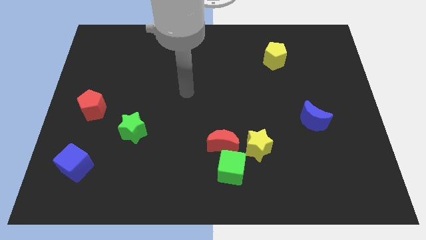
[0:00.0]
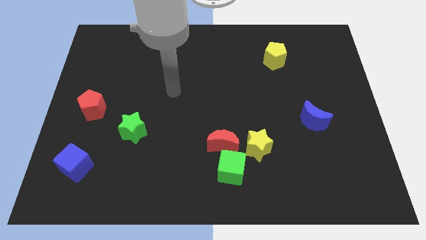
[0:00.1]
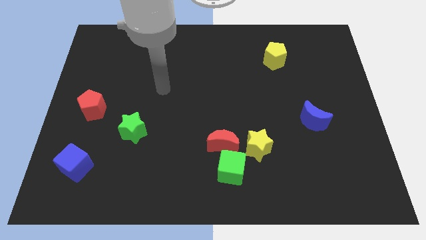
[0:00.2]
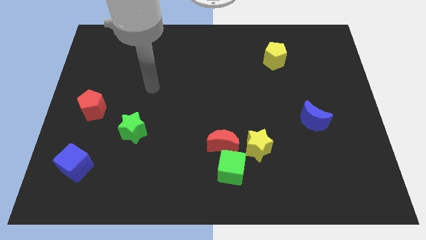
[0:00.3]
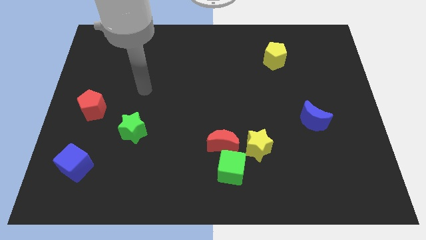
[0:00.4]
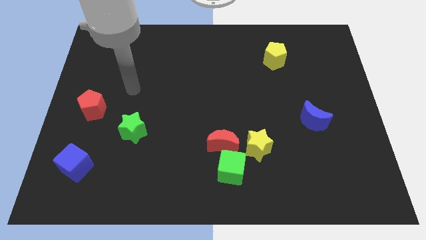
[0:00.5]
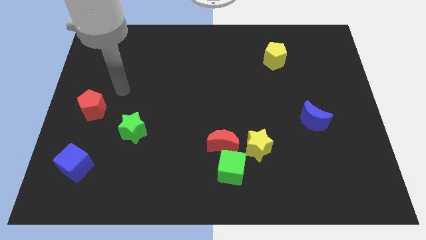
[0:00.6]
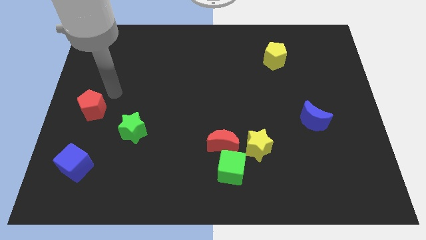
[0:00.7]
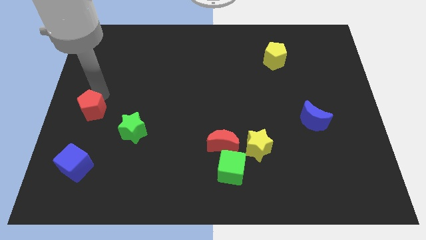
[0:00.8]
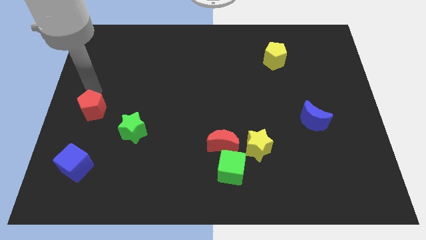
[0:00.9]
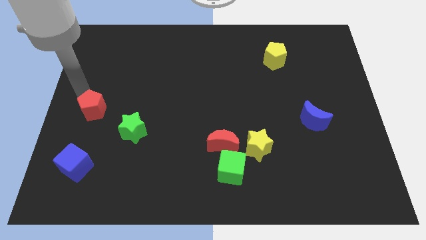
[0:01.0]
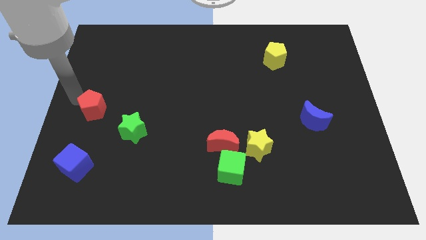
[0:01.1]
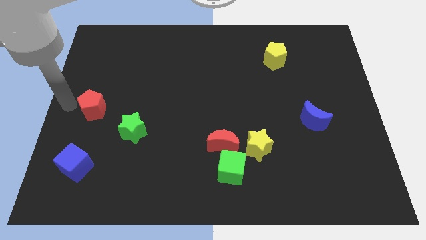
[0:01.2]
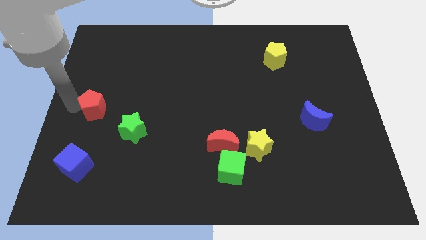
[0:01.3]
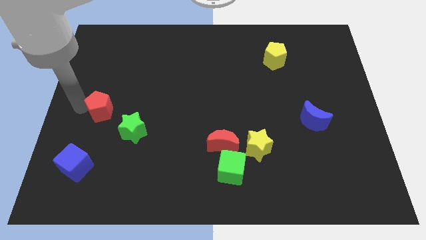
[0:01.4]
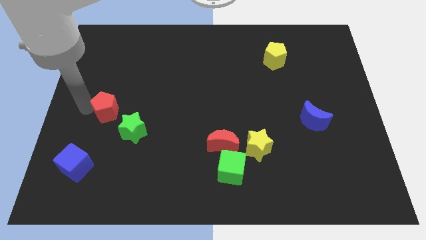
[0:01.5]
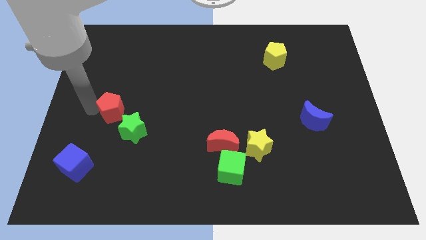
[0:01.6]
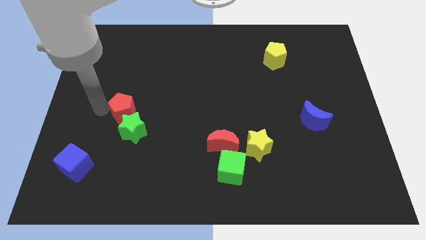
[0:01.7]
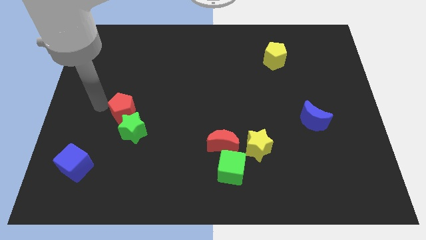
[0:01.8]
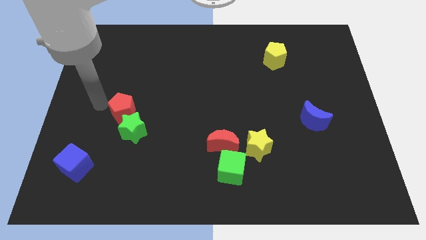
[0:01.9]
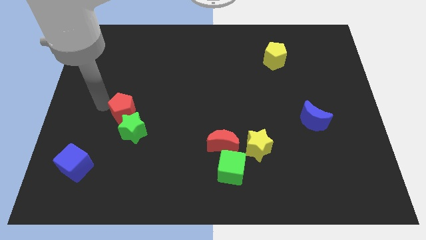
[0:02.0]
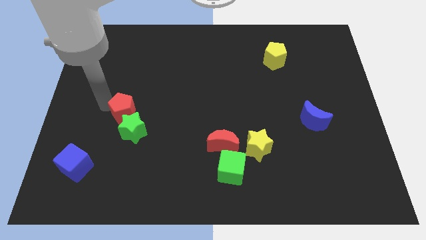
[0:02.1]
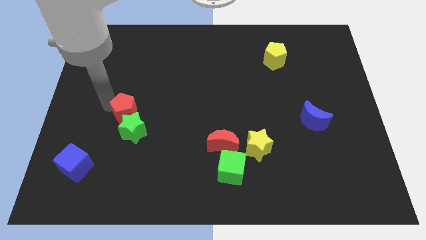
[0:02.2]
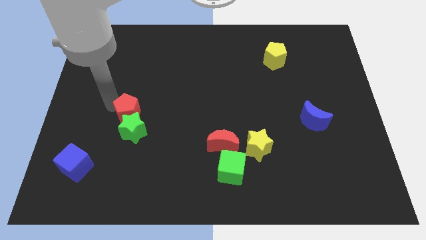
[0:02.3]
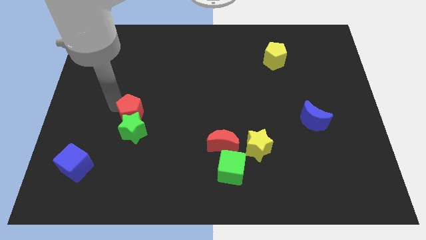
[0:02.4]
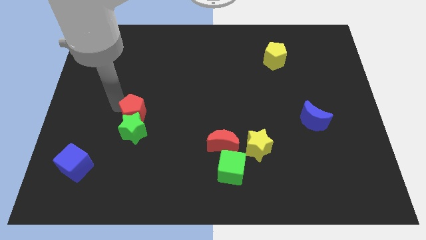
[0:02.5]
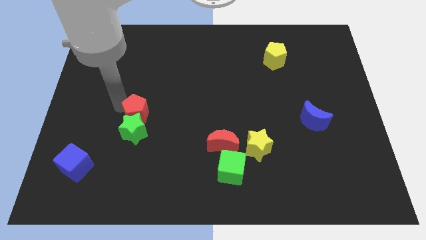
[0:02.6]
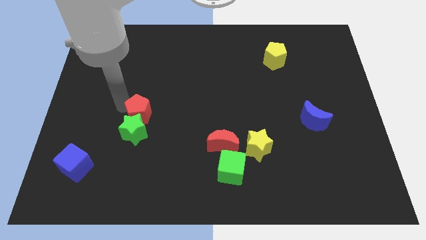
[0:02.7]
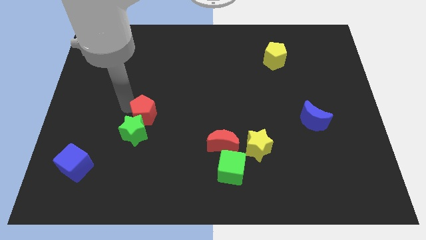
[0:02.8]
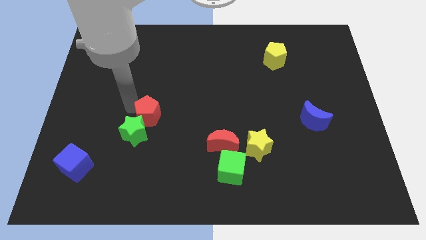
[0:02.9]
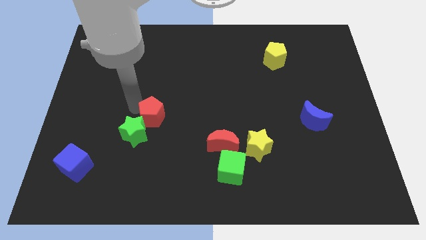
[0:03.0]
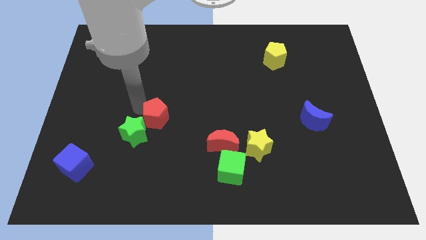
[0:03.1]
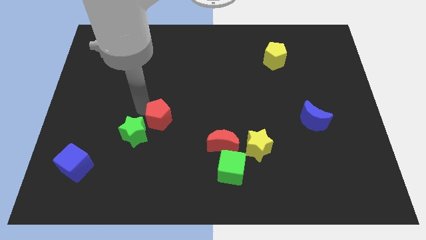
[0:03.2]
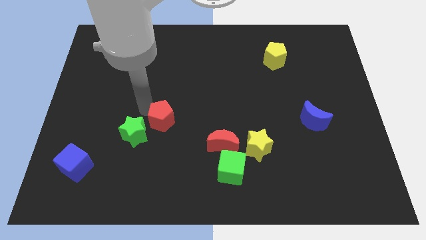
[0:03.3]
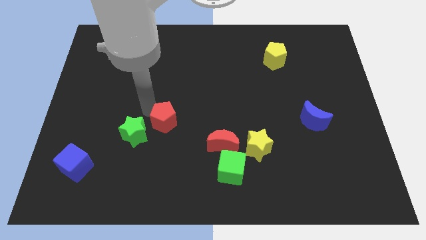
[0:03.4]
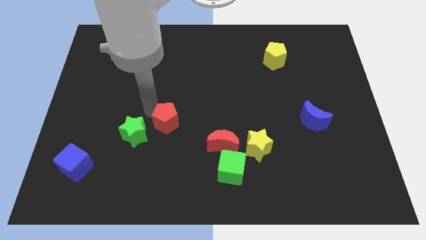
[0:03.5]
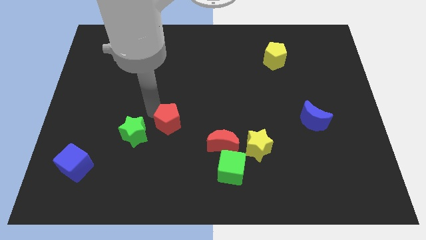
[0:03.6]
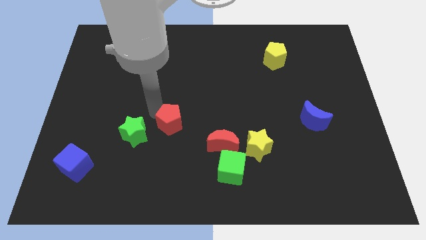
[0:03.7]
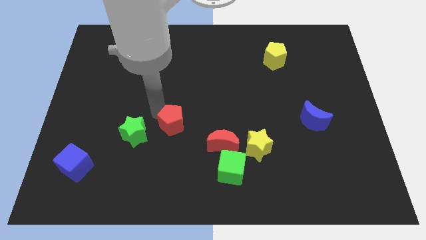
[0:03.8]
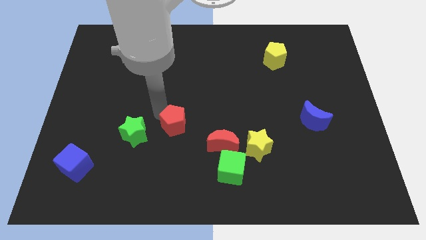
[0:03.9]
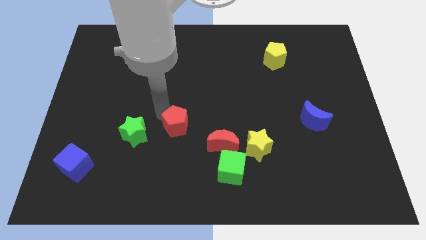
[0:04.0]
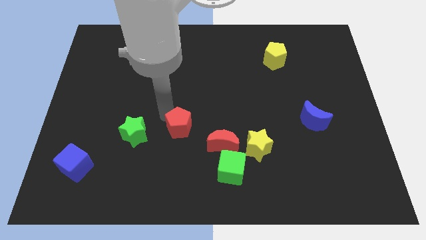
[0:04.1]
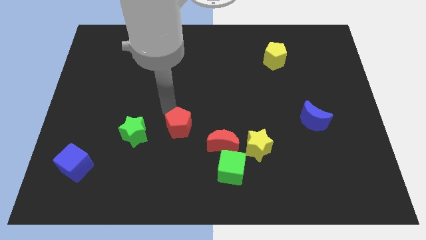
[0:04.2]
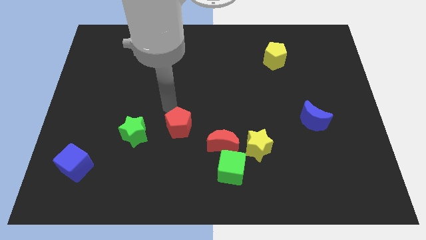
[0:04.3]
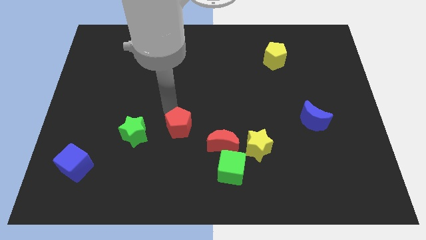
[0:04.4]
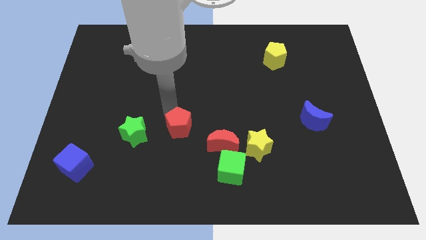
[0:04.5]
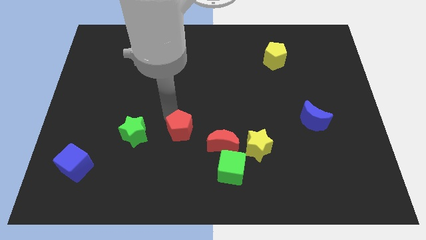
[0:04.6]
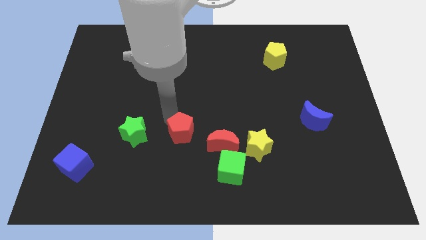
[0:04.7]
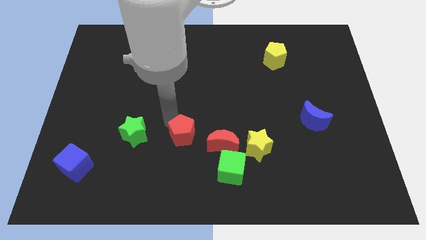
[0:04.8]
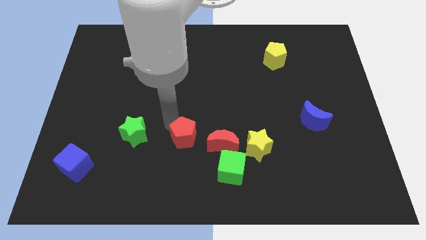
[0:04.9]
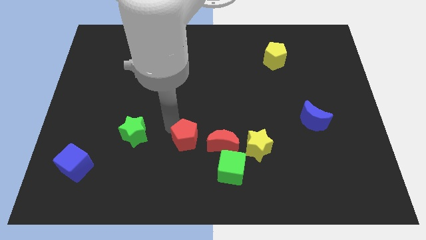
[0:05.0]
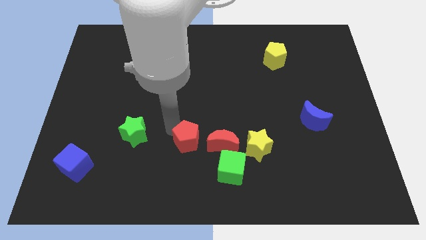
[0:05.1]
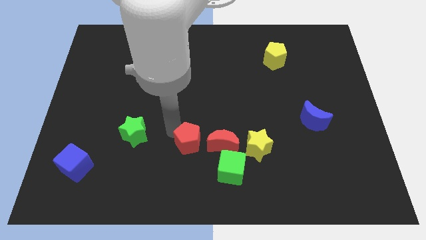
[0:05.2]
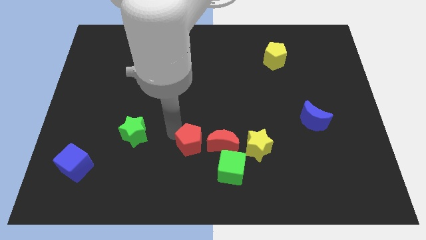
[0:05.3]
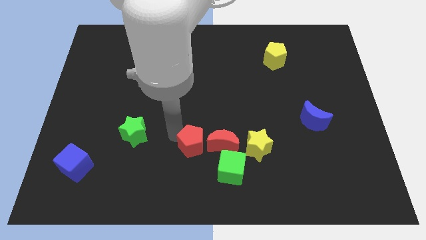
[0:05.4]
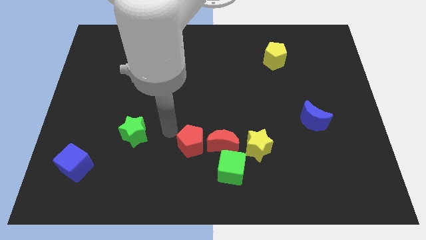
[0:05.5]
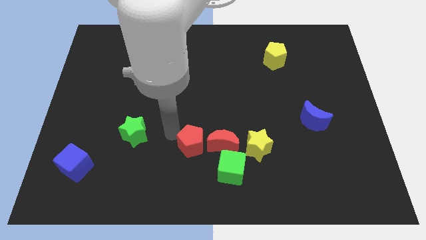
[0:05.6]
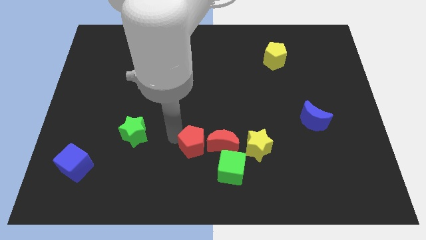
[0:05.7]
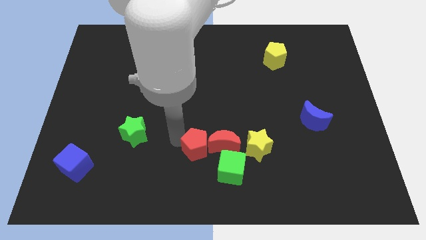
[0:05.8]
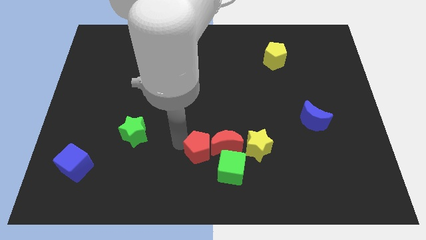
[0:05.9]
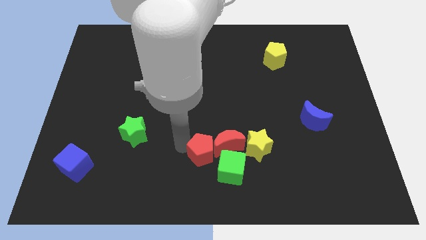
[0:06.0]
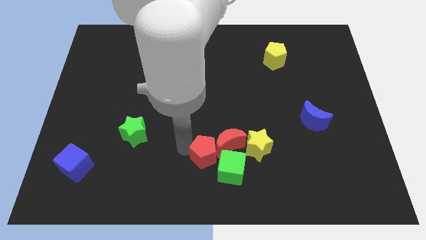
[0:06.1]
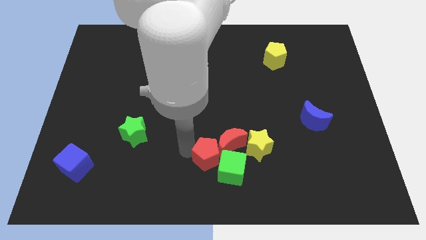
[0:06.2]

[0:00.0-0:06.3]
push the red pentagon to the green cube

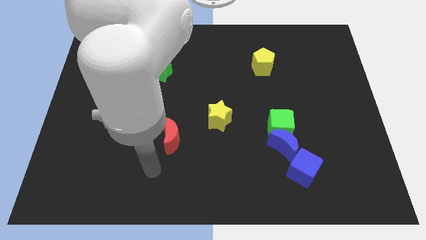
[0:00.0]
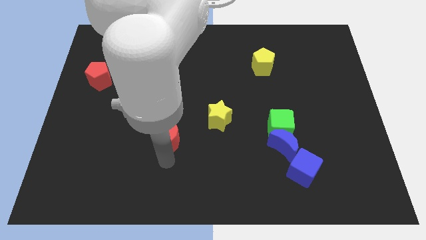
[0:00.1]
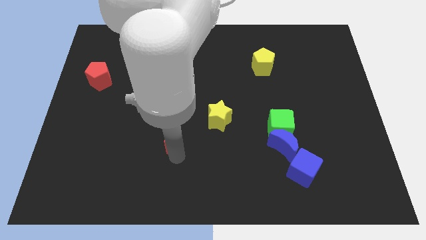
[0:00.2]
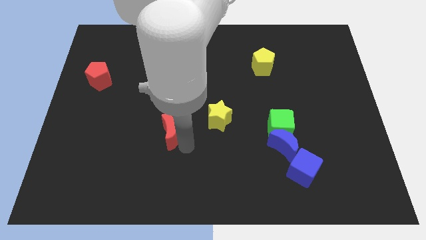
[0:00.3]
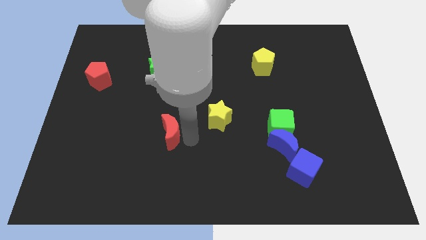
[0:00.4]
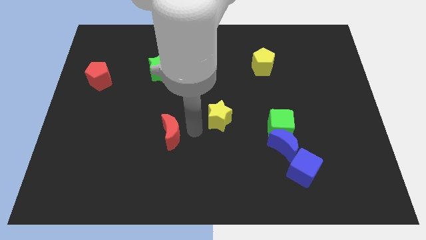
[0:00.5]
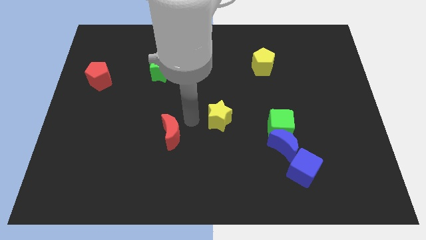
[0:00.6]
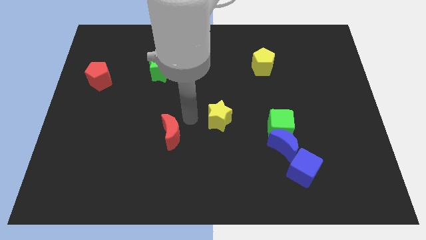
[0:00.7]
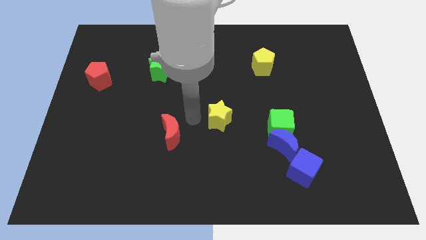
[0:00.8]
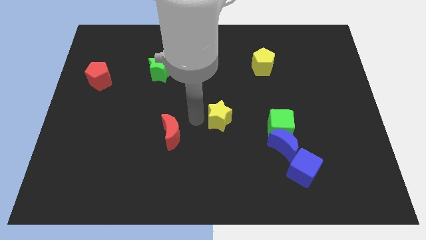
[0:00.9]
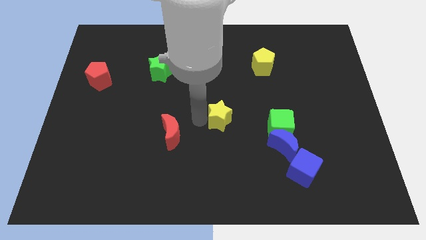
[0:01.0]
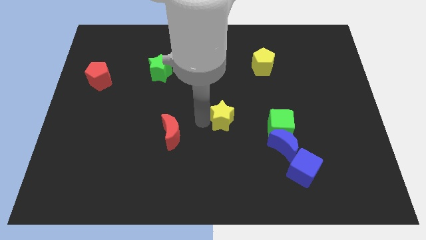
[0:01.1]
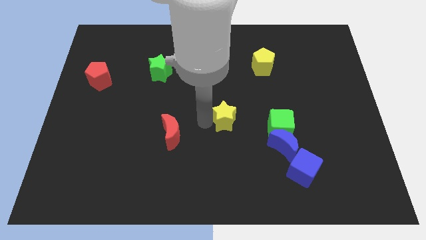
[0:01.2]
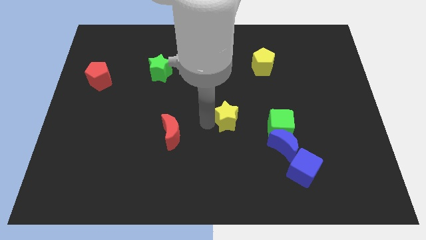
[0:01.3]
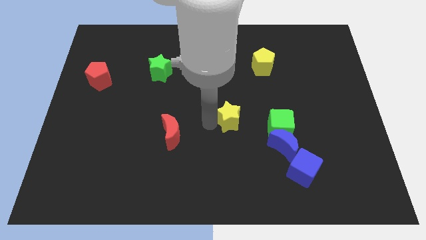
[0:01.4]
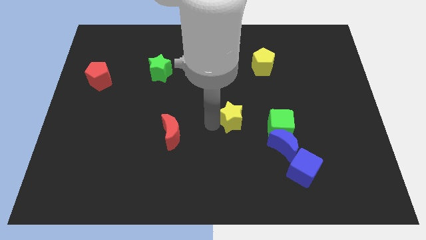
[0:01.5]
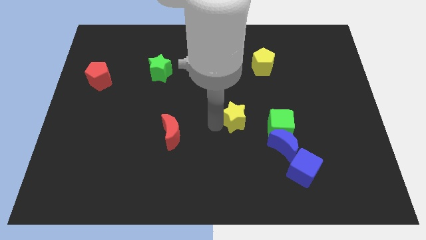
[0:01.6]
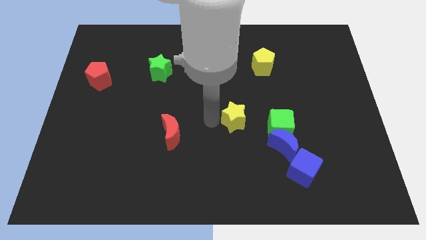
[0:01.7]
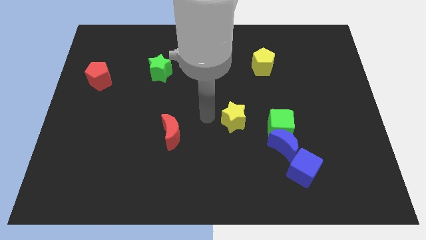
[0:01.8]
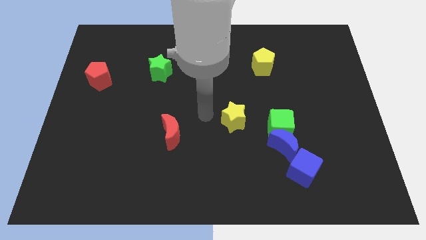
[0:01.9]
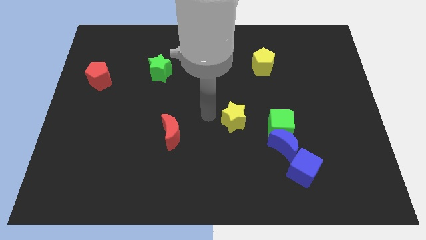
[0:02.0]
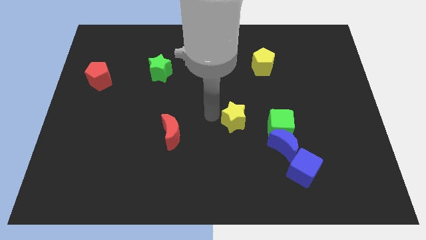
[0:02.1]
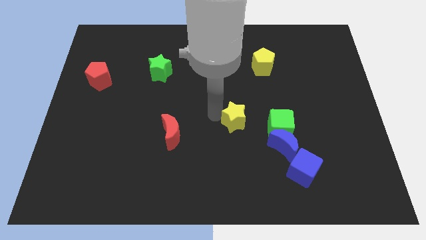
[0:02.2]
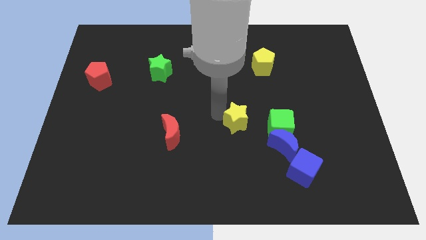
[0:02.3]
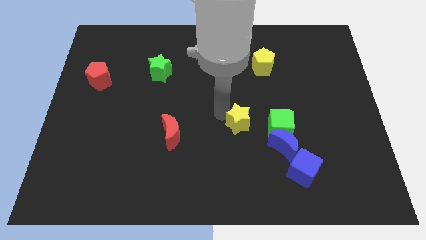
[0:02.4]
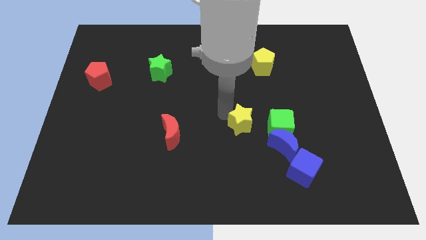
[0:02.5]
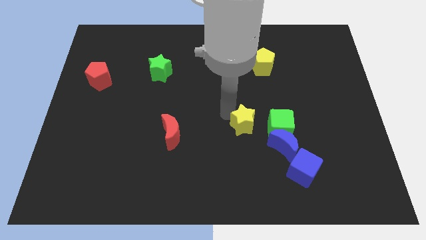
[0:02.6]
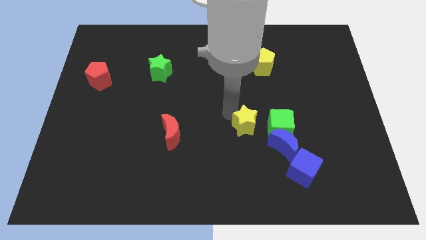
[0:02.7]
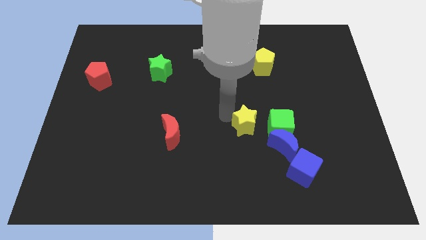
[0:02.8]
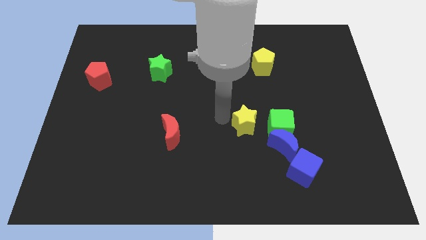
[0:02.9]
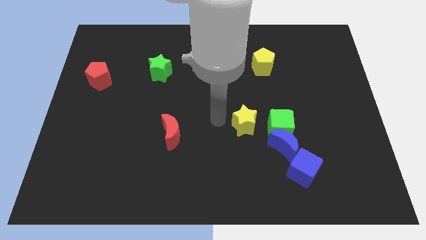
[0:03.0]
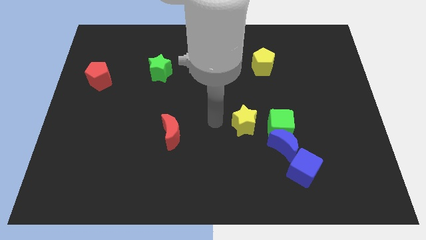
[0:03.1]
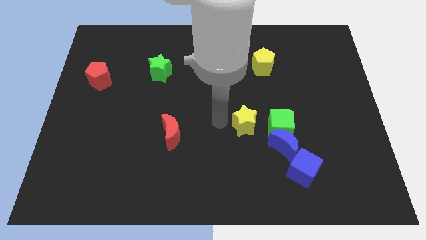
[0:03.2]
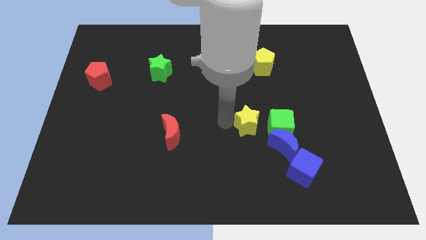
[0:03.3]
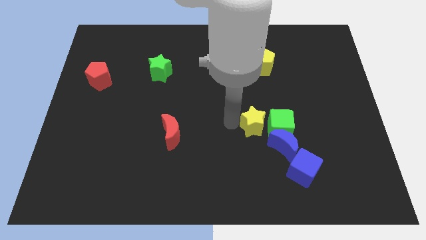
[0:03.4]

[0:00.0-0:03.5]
move the yellow star to the green cube
